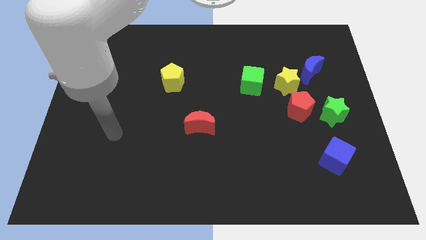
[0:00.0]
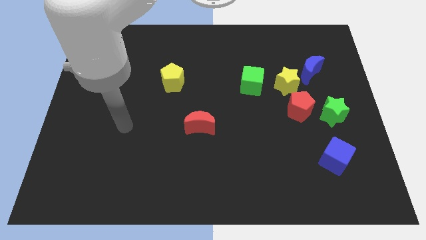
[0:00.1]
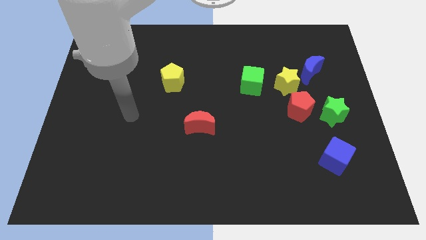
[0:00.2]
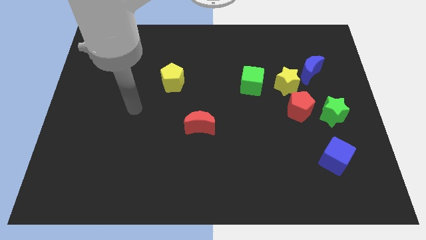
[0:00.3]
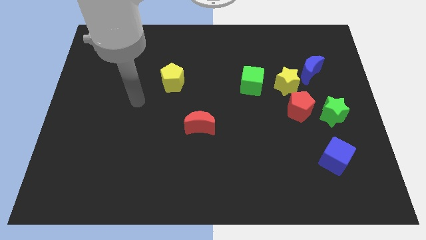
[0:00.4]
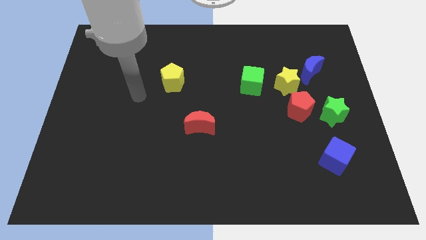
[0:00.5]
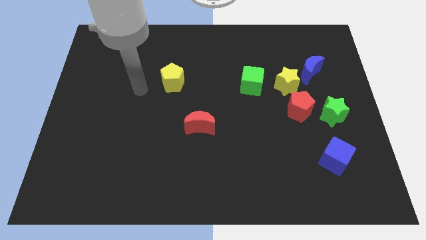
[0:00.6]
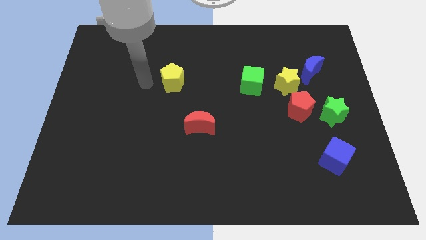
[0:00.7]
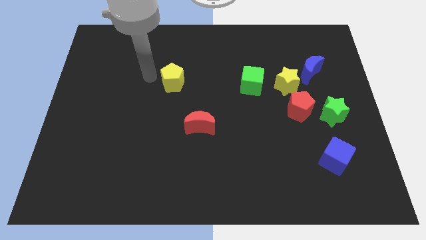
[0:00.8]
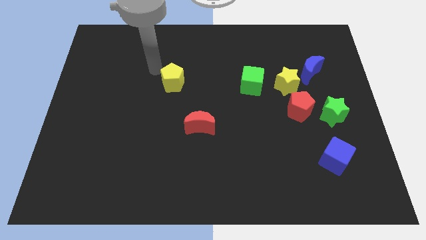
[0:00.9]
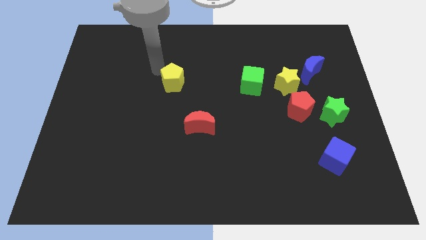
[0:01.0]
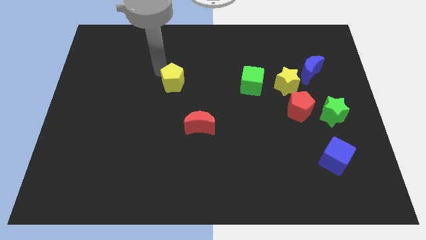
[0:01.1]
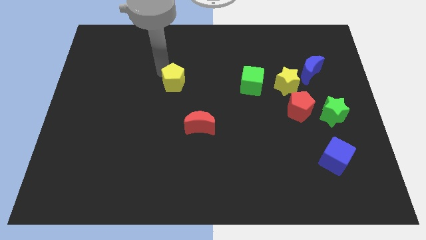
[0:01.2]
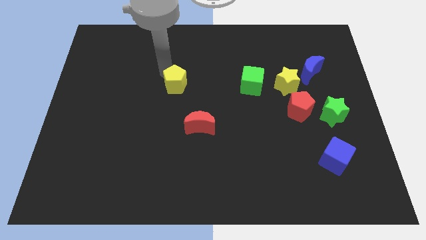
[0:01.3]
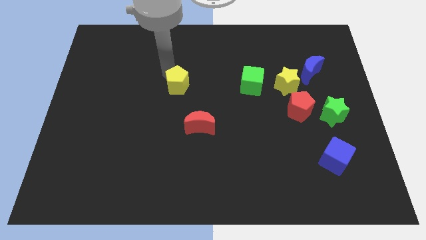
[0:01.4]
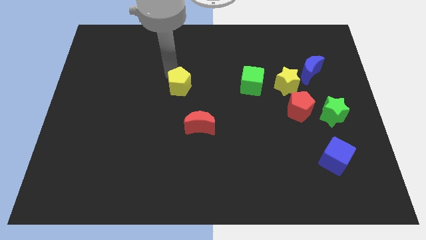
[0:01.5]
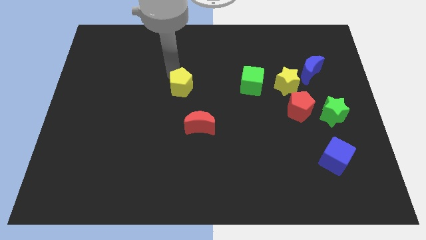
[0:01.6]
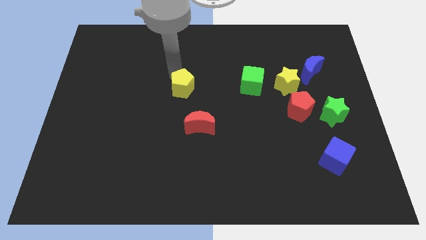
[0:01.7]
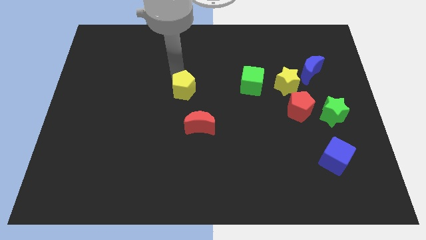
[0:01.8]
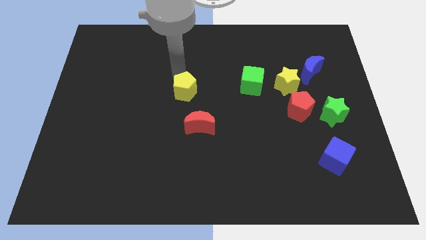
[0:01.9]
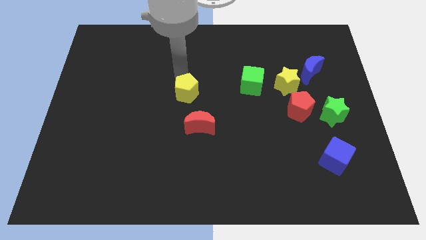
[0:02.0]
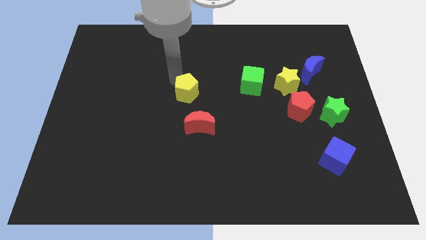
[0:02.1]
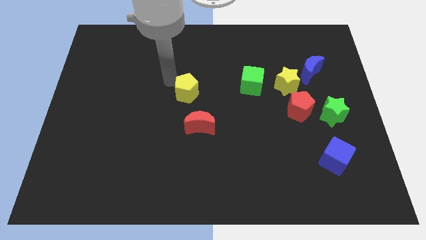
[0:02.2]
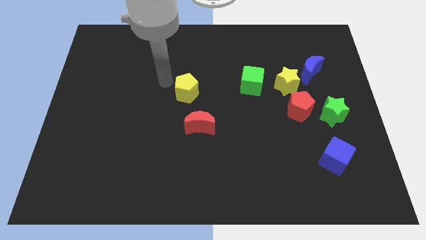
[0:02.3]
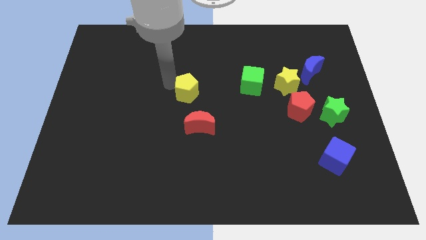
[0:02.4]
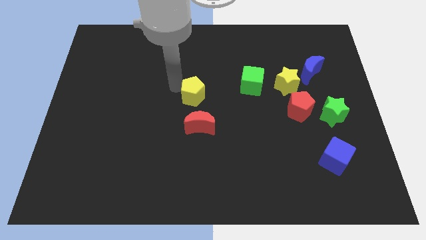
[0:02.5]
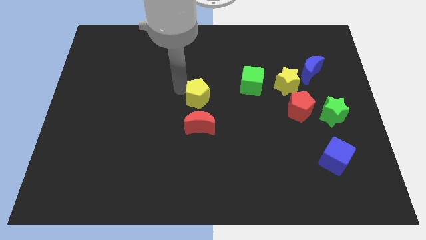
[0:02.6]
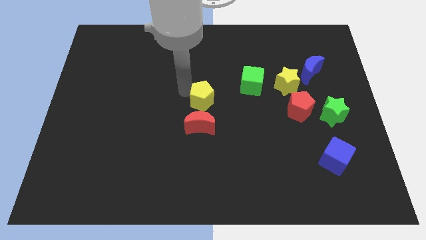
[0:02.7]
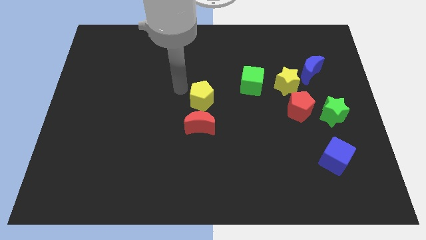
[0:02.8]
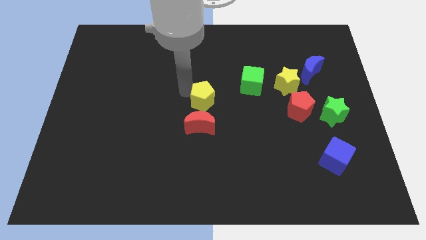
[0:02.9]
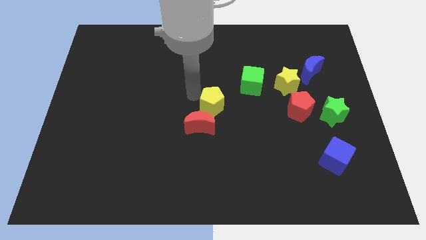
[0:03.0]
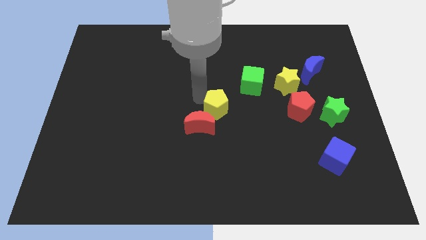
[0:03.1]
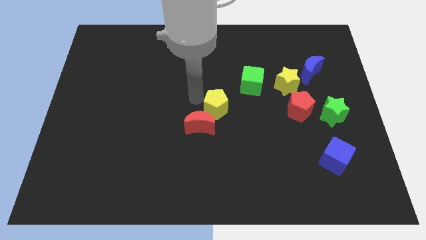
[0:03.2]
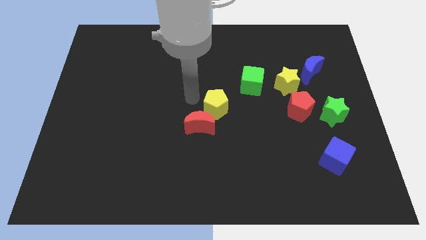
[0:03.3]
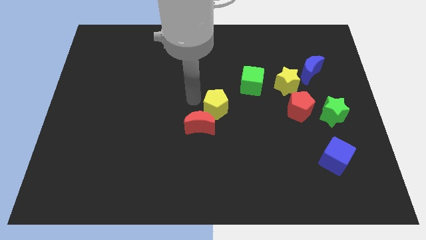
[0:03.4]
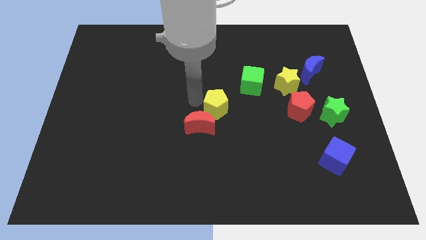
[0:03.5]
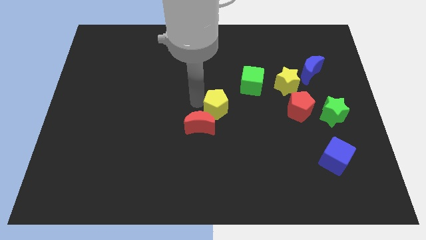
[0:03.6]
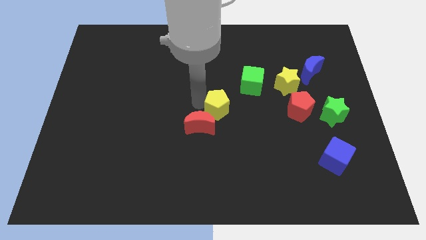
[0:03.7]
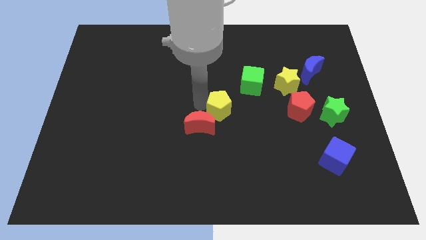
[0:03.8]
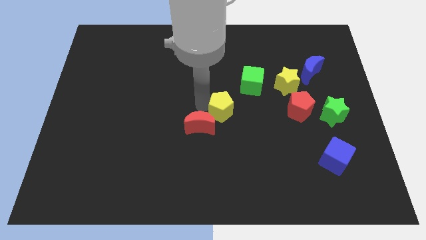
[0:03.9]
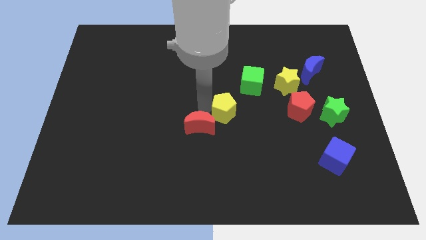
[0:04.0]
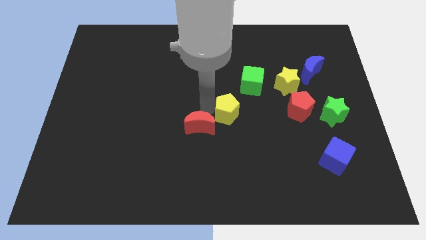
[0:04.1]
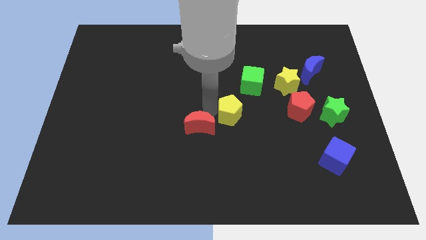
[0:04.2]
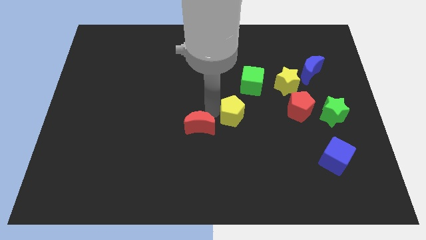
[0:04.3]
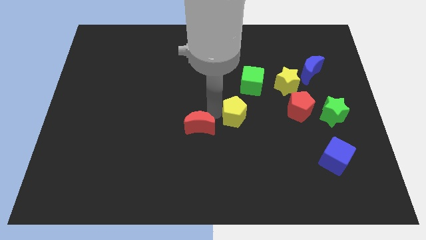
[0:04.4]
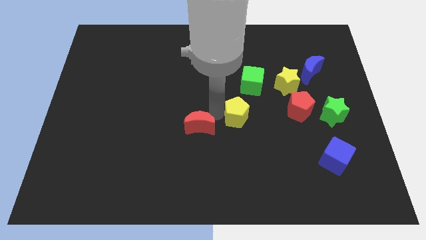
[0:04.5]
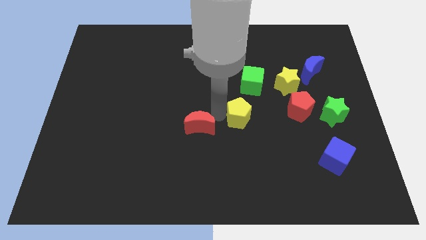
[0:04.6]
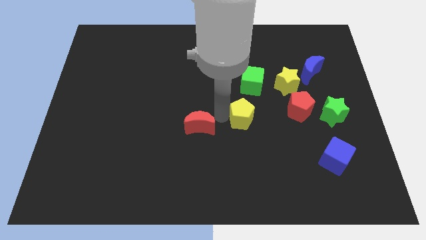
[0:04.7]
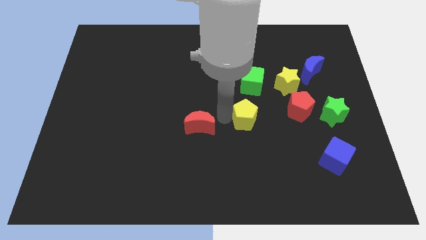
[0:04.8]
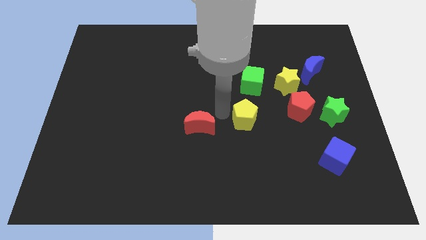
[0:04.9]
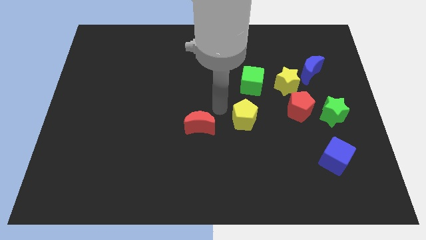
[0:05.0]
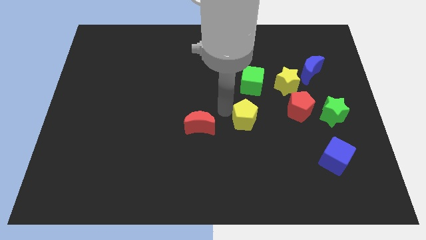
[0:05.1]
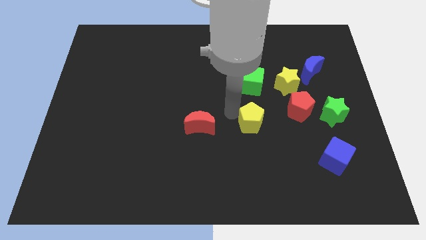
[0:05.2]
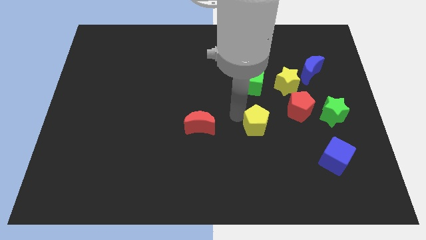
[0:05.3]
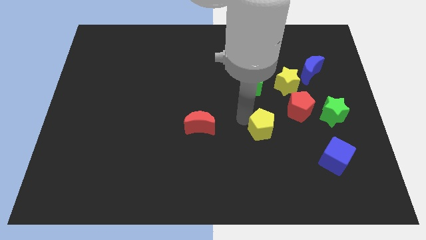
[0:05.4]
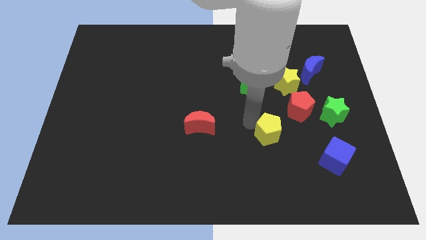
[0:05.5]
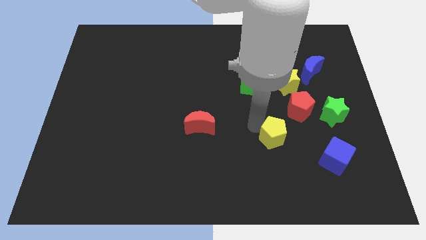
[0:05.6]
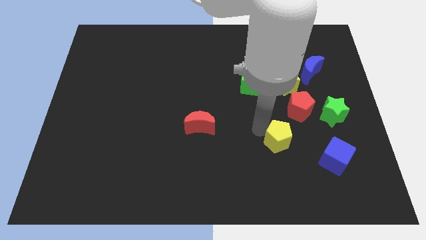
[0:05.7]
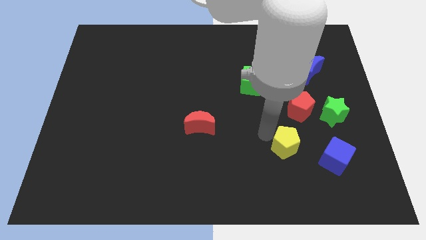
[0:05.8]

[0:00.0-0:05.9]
put the yellow pentagon diagonally up and to the left of the blue cube

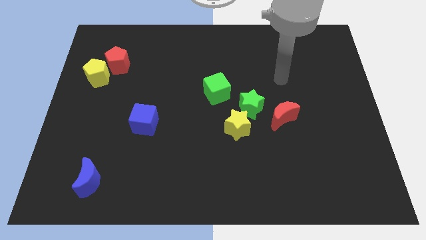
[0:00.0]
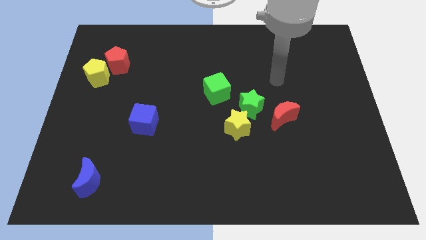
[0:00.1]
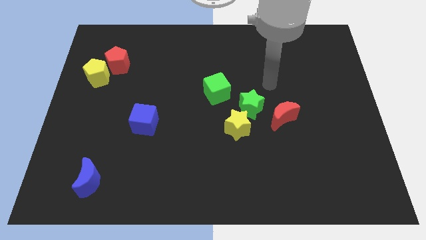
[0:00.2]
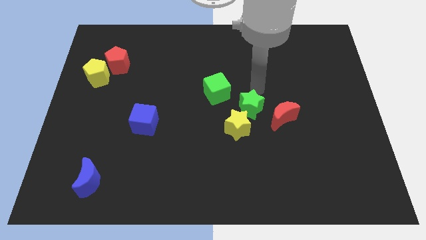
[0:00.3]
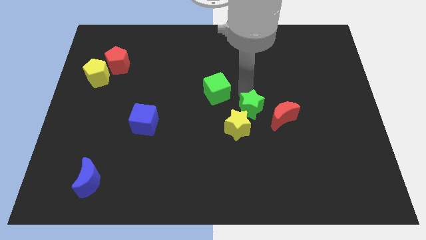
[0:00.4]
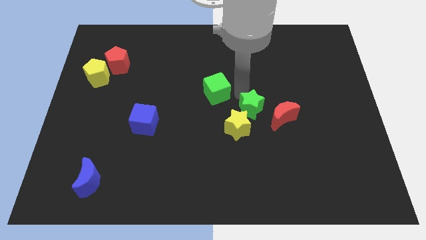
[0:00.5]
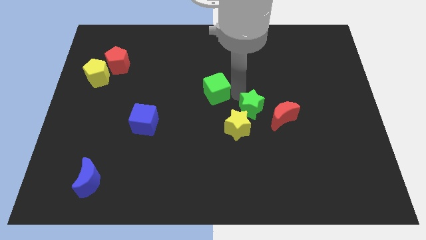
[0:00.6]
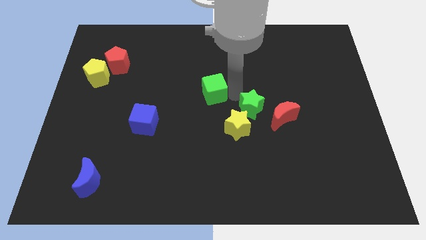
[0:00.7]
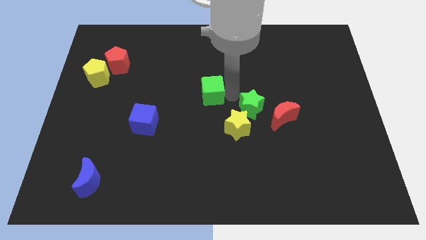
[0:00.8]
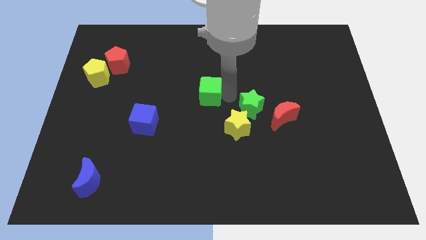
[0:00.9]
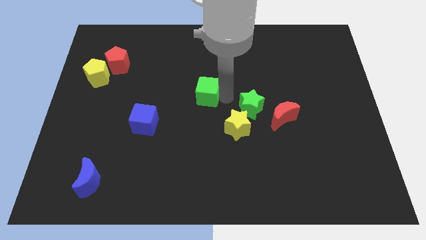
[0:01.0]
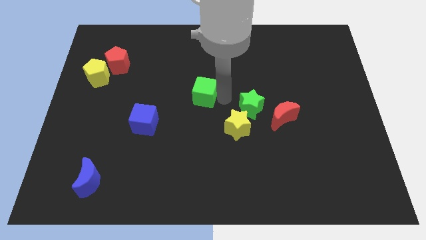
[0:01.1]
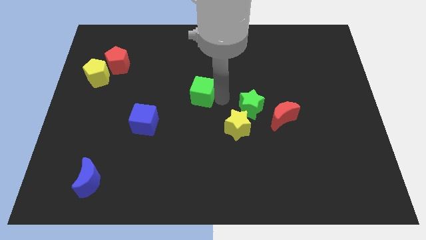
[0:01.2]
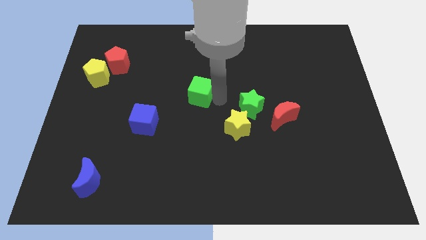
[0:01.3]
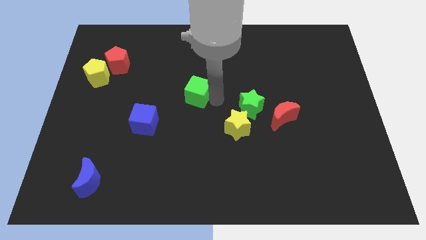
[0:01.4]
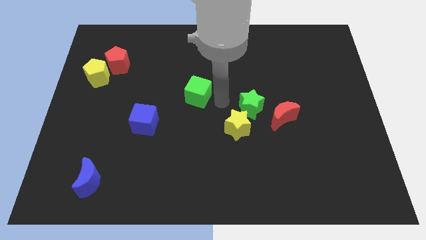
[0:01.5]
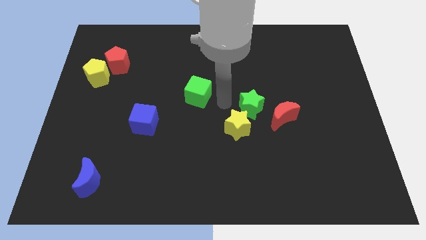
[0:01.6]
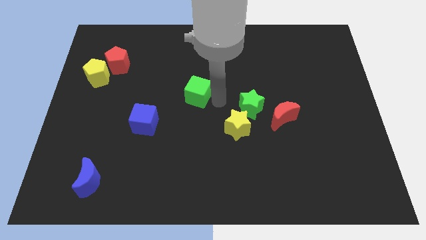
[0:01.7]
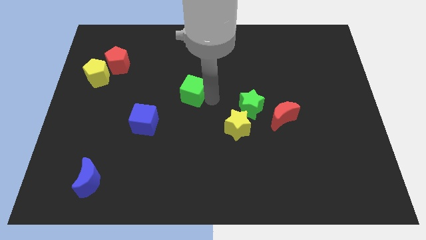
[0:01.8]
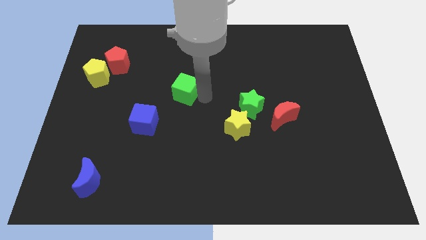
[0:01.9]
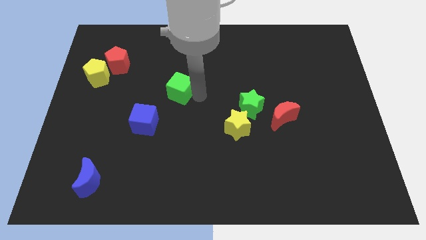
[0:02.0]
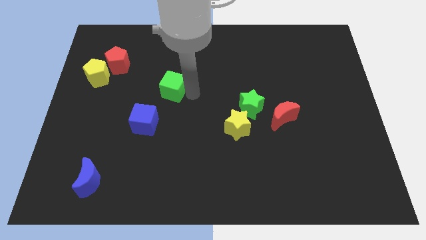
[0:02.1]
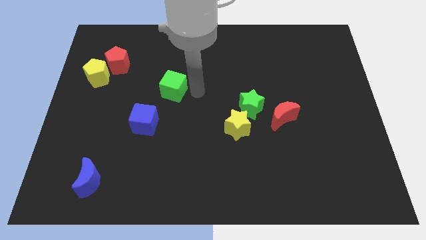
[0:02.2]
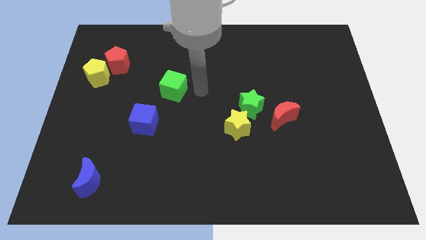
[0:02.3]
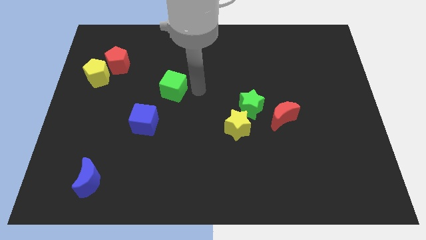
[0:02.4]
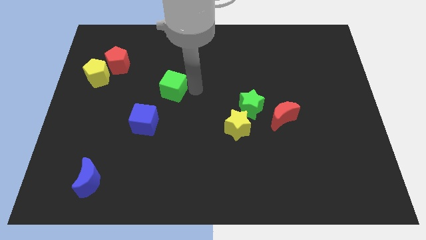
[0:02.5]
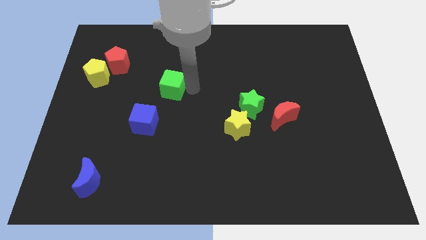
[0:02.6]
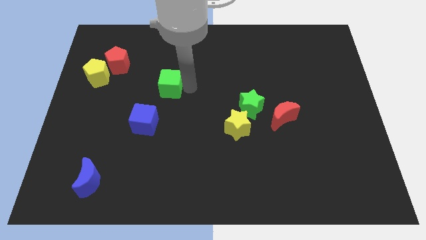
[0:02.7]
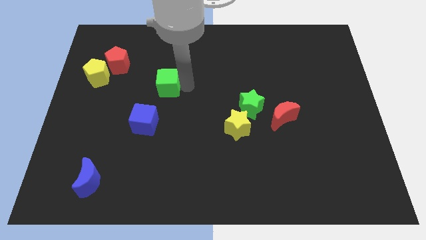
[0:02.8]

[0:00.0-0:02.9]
slide the green cube to the top side of the blue cube
